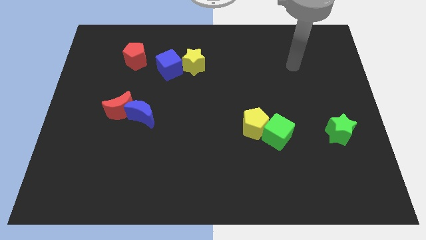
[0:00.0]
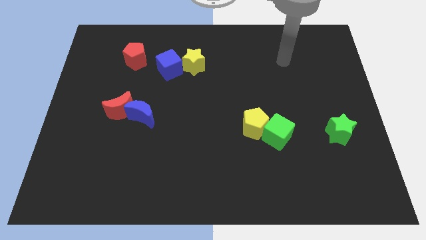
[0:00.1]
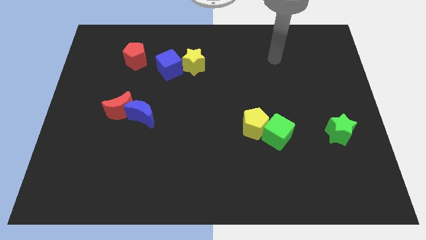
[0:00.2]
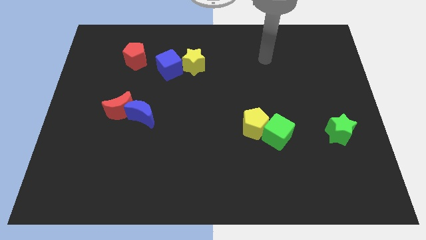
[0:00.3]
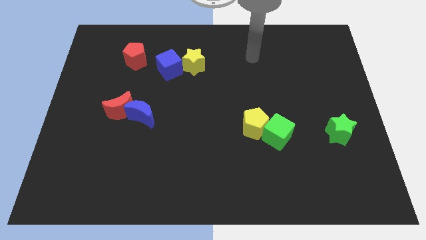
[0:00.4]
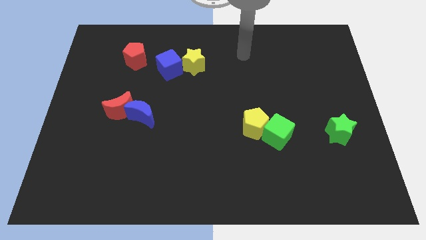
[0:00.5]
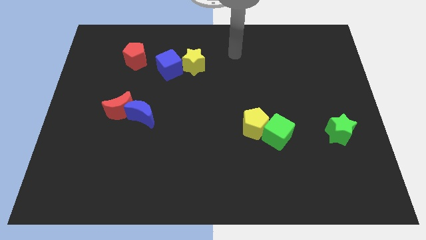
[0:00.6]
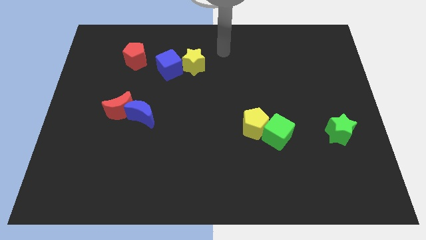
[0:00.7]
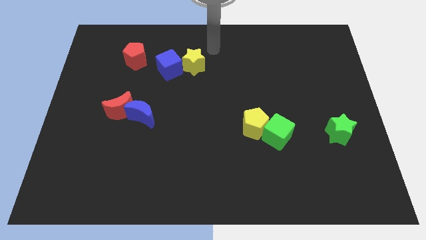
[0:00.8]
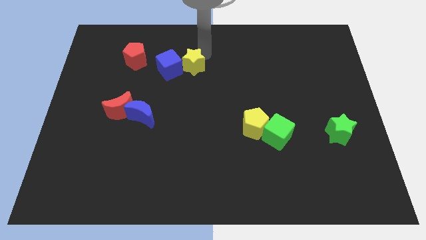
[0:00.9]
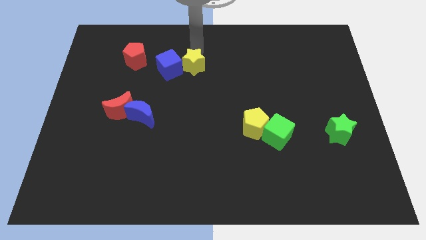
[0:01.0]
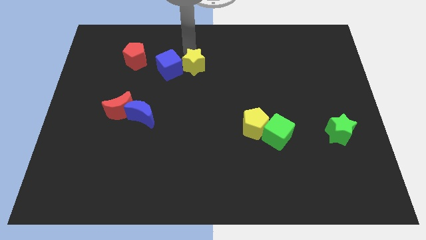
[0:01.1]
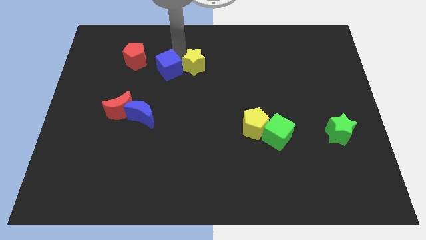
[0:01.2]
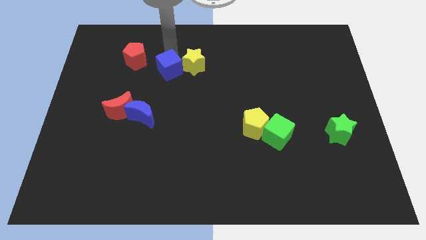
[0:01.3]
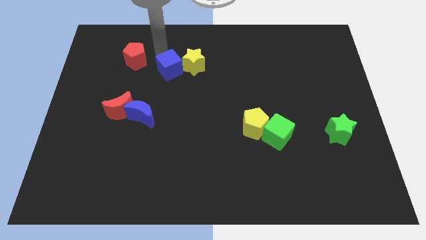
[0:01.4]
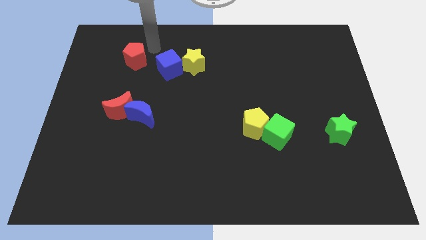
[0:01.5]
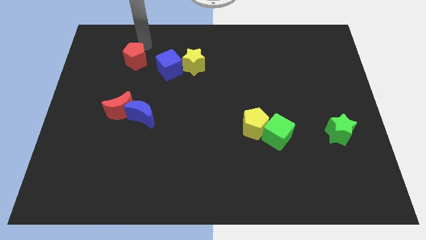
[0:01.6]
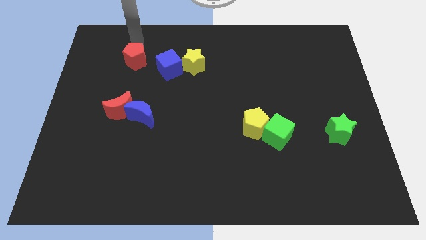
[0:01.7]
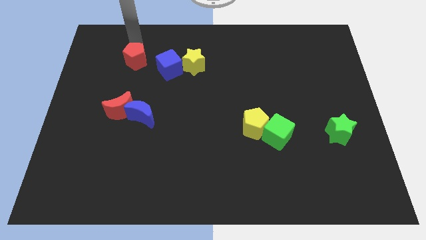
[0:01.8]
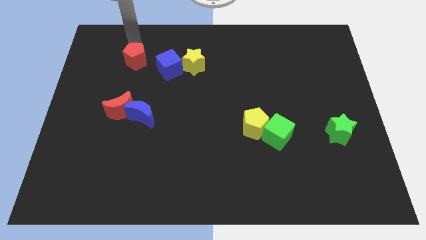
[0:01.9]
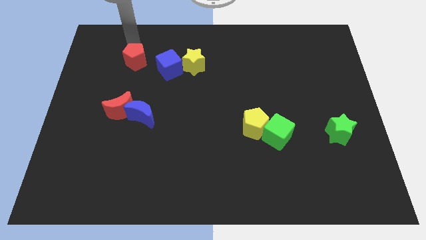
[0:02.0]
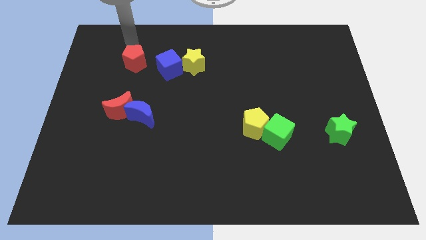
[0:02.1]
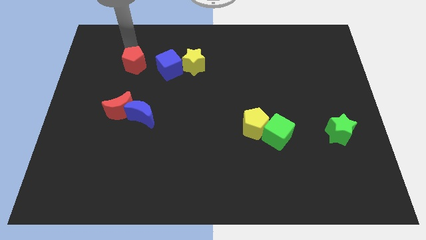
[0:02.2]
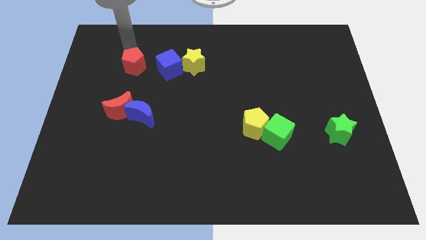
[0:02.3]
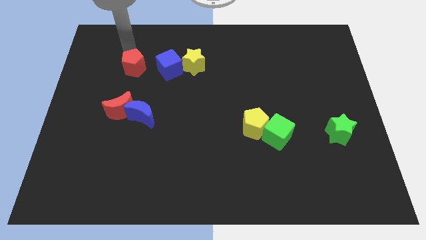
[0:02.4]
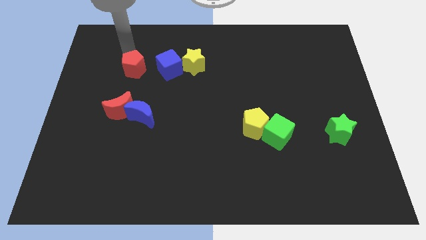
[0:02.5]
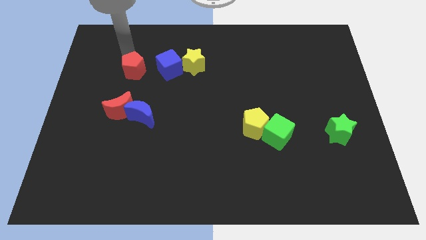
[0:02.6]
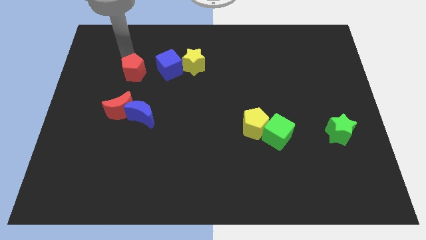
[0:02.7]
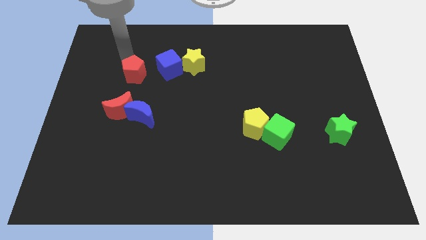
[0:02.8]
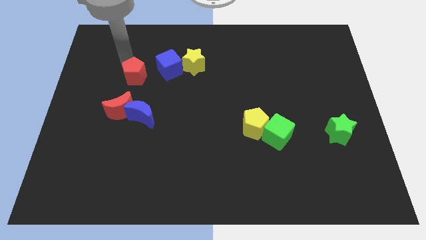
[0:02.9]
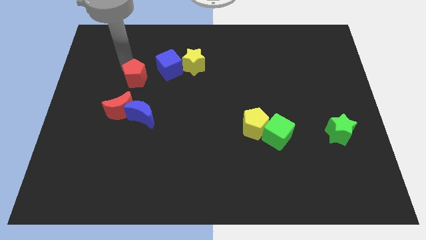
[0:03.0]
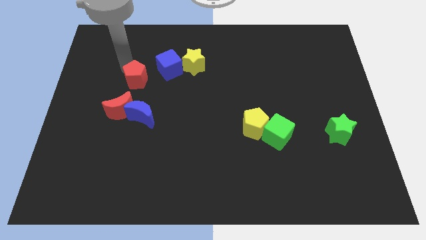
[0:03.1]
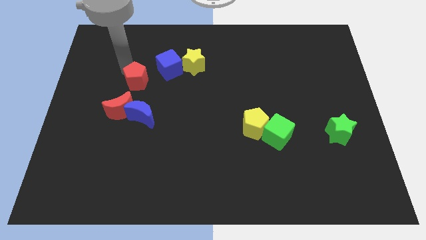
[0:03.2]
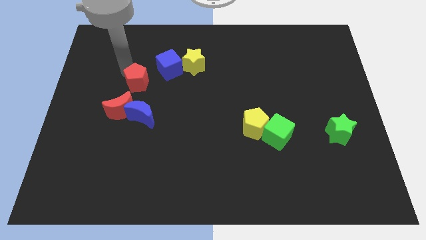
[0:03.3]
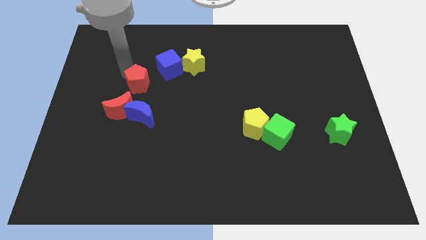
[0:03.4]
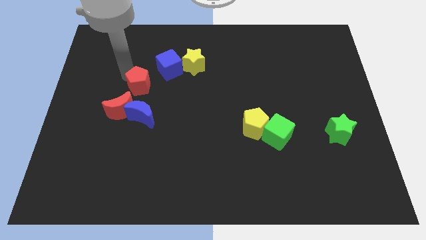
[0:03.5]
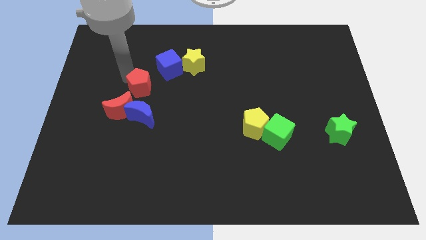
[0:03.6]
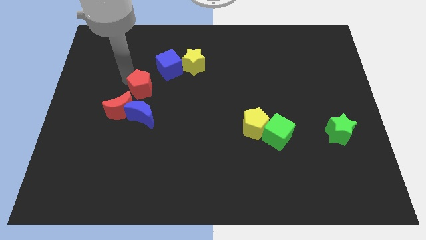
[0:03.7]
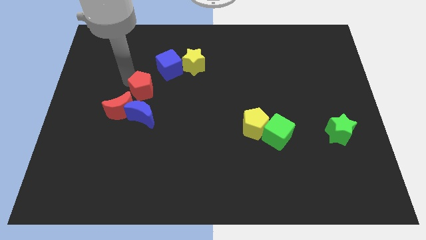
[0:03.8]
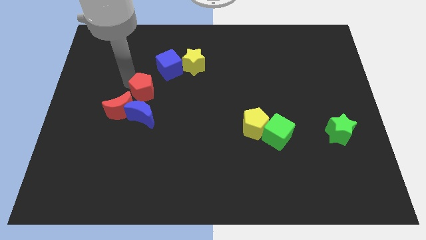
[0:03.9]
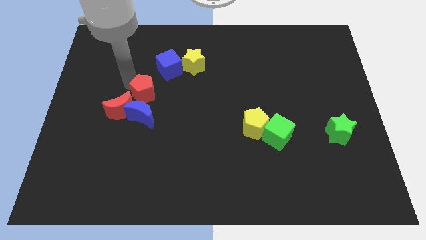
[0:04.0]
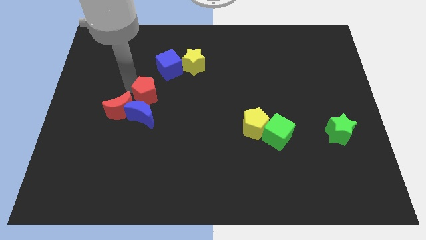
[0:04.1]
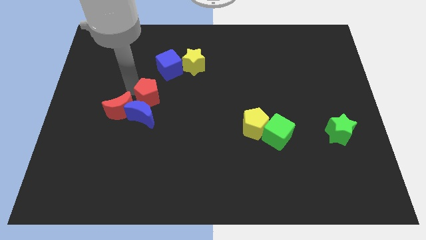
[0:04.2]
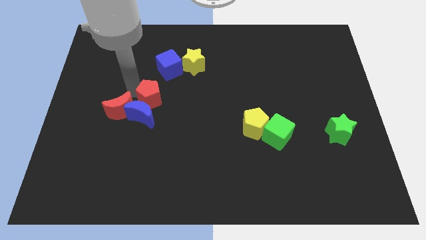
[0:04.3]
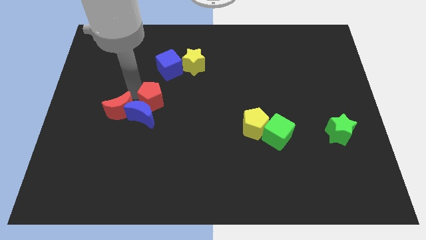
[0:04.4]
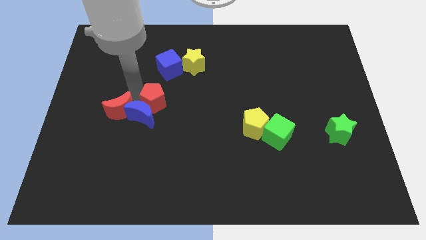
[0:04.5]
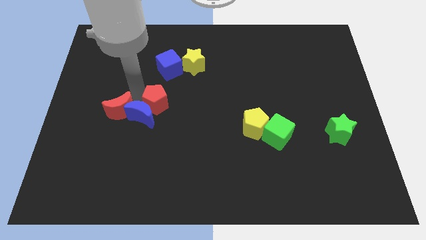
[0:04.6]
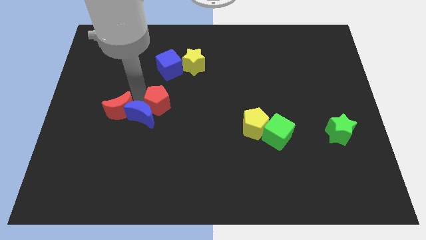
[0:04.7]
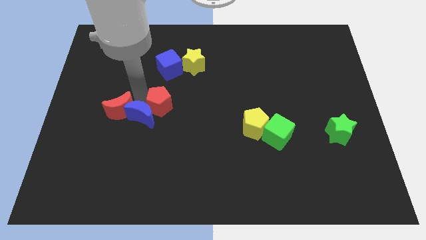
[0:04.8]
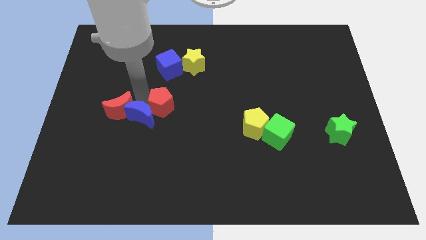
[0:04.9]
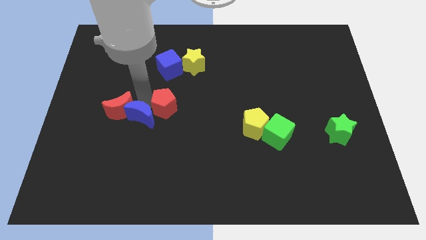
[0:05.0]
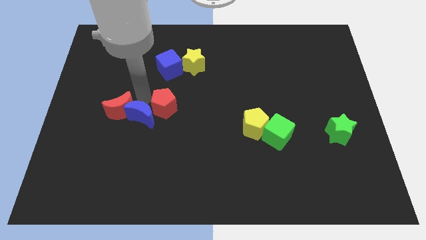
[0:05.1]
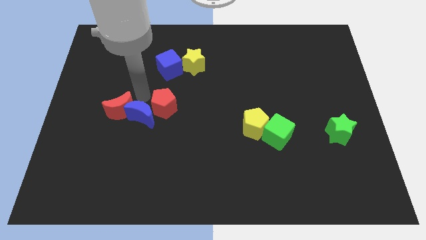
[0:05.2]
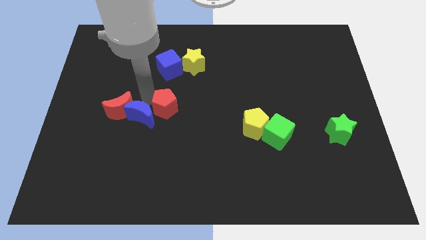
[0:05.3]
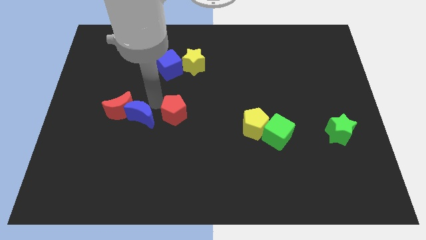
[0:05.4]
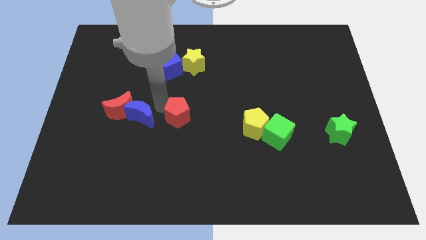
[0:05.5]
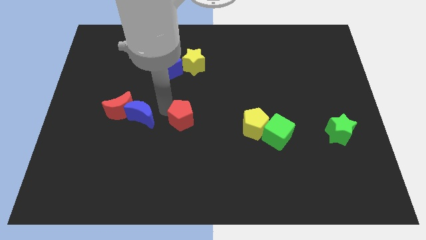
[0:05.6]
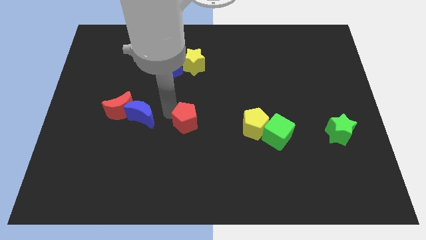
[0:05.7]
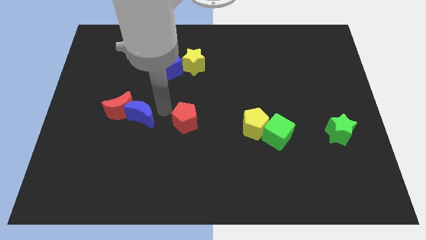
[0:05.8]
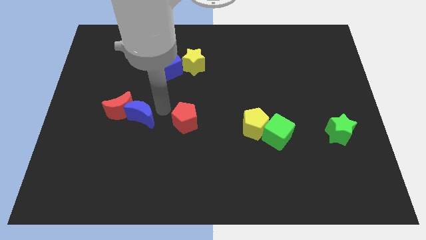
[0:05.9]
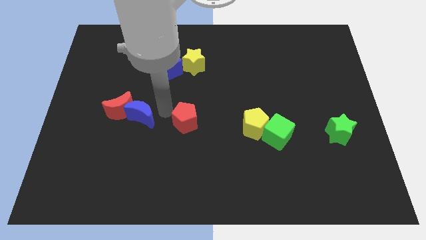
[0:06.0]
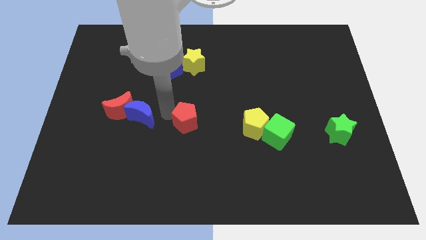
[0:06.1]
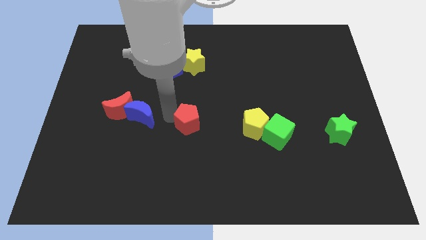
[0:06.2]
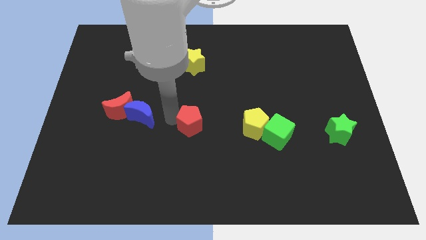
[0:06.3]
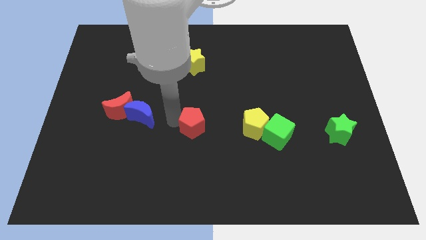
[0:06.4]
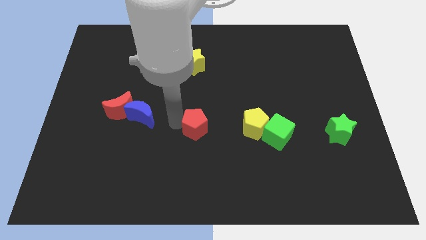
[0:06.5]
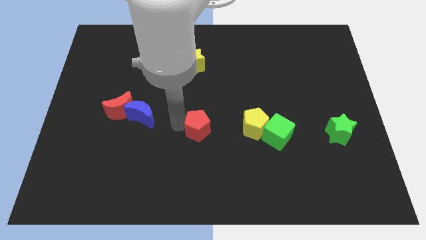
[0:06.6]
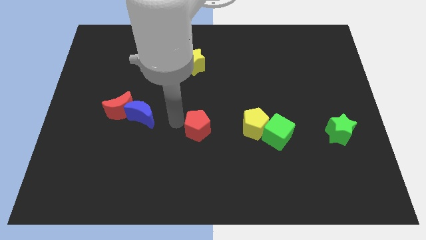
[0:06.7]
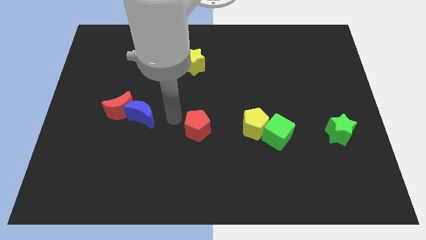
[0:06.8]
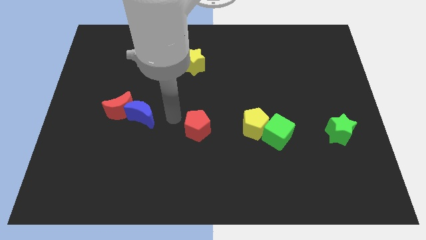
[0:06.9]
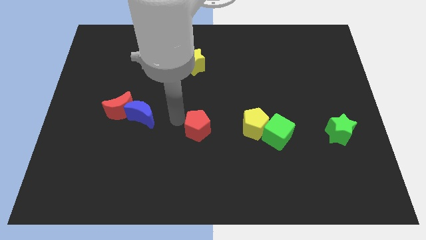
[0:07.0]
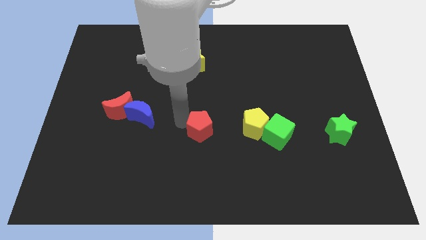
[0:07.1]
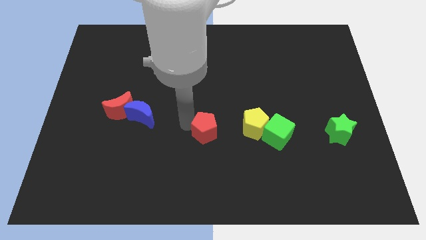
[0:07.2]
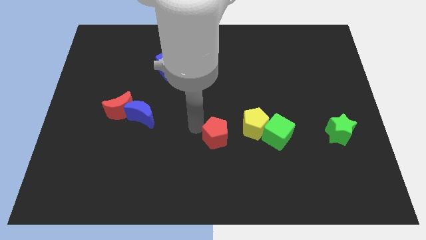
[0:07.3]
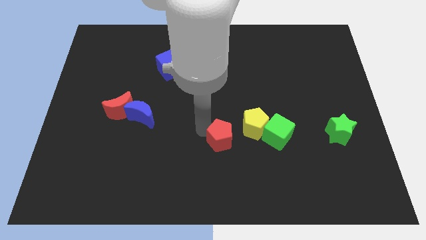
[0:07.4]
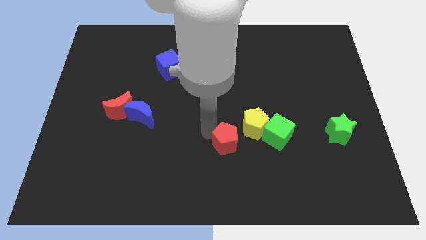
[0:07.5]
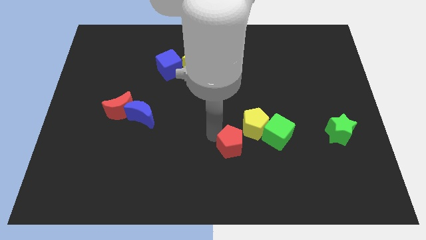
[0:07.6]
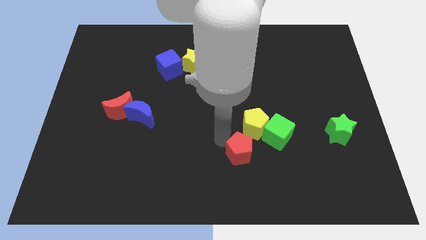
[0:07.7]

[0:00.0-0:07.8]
put the red pentagon below the yellow pentagon
